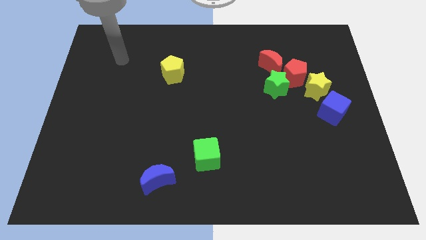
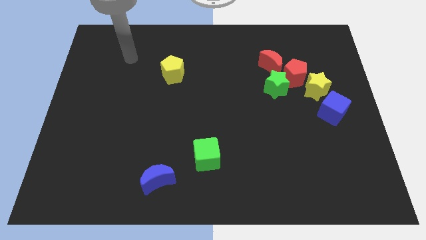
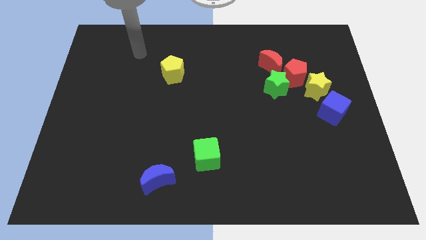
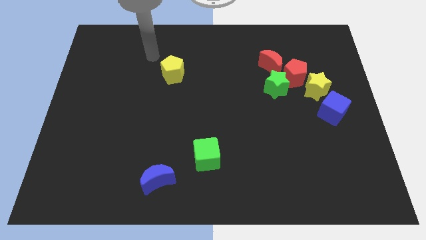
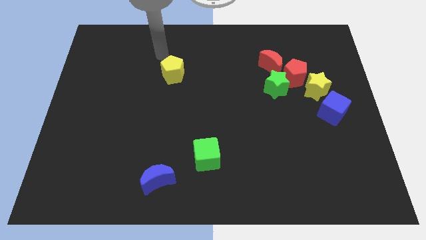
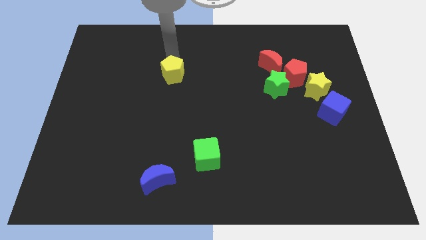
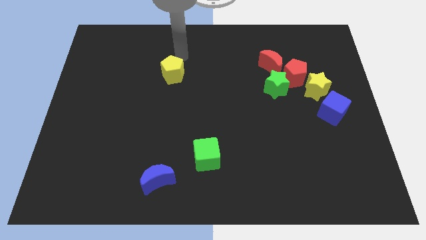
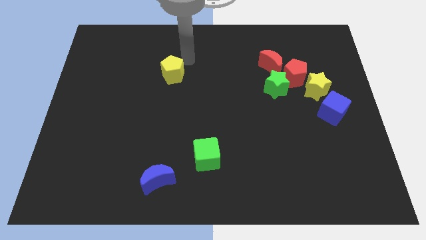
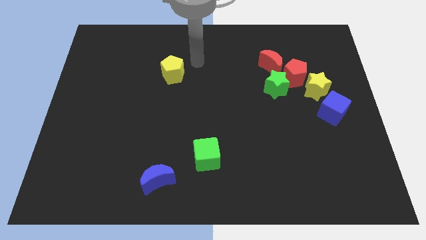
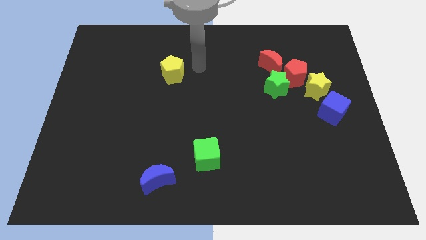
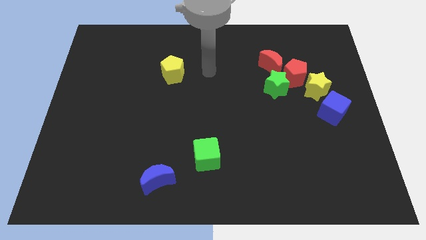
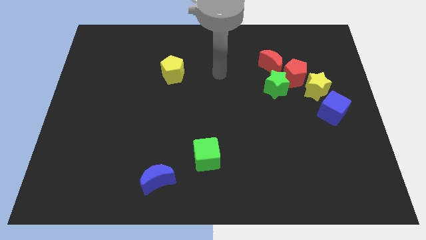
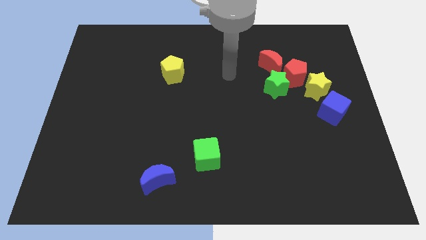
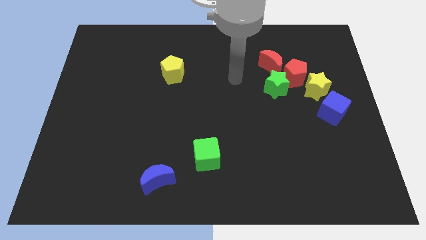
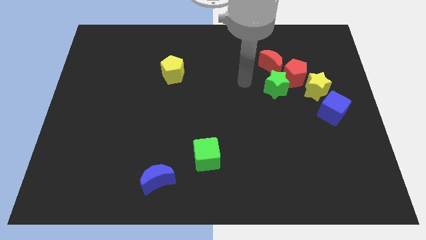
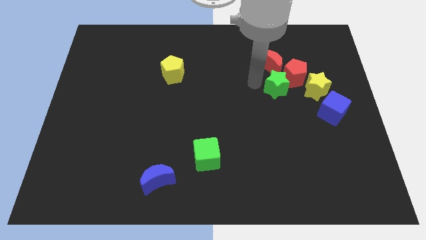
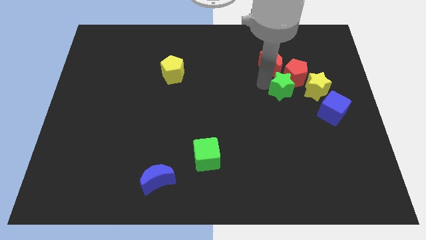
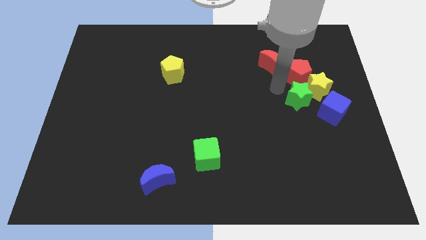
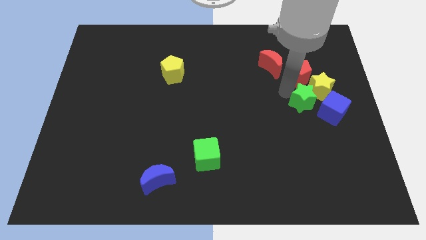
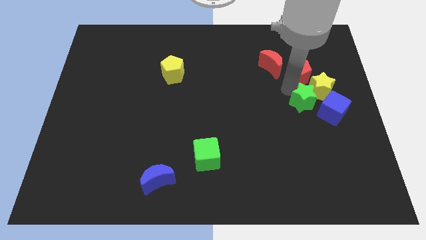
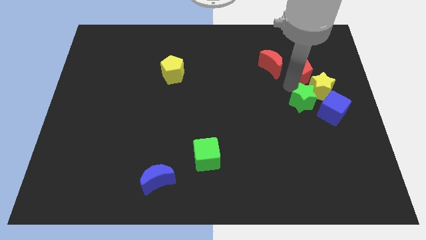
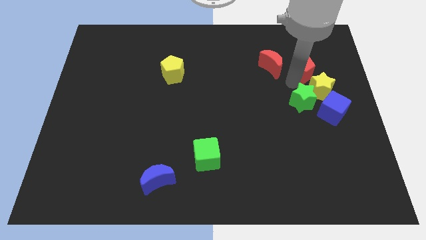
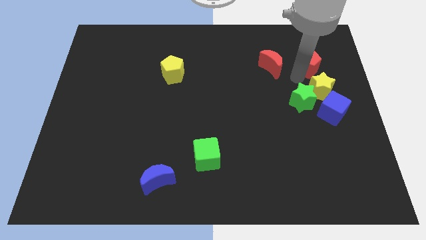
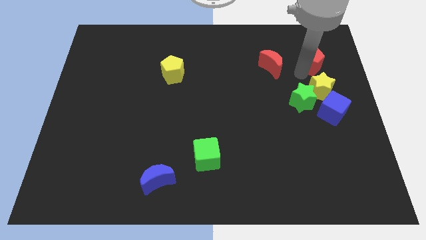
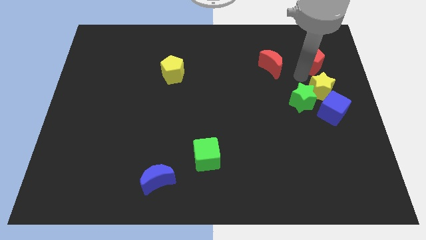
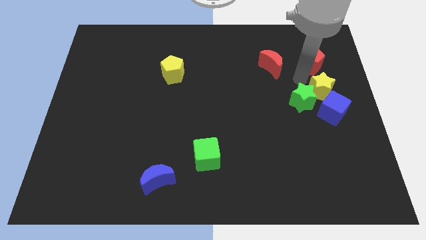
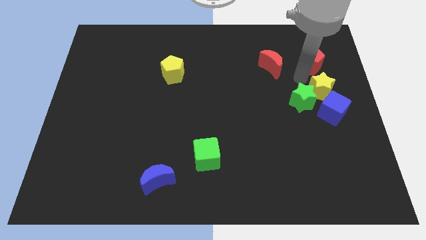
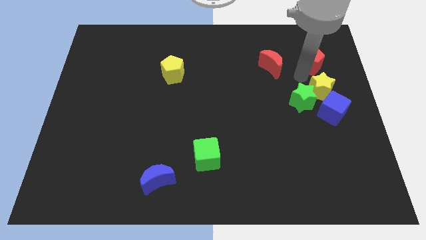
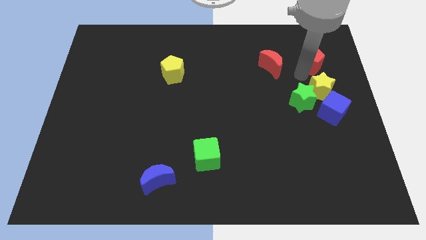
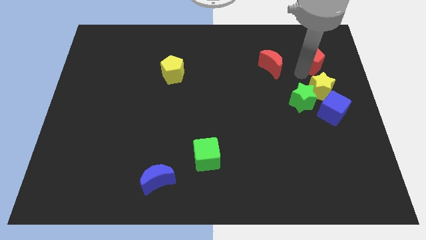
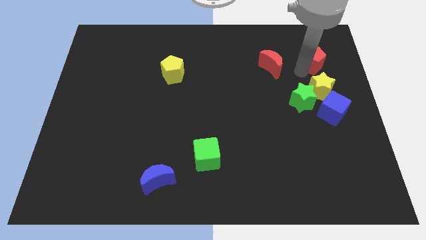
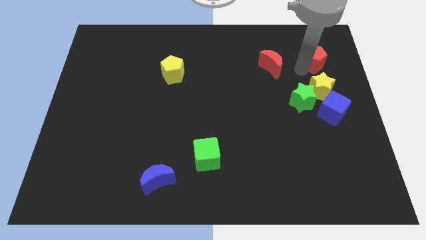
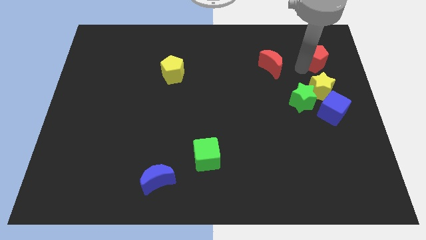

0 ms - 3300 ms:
separate the red pentagon from the clump

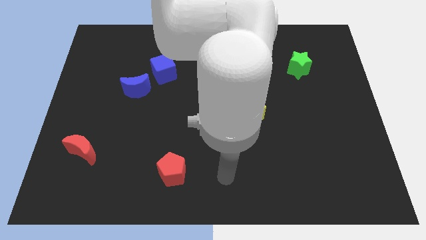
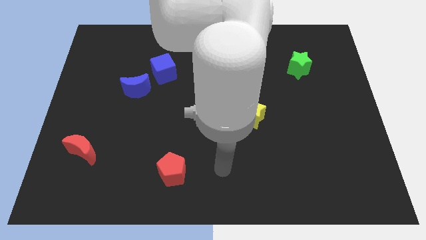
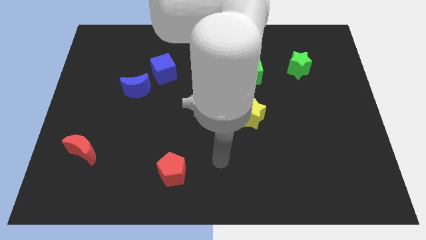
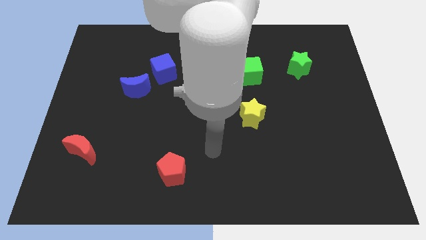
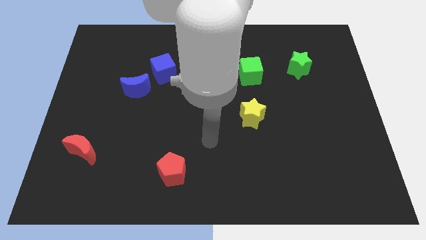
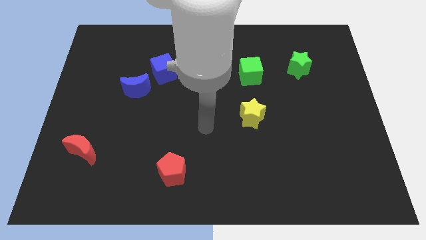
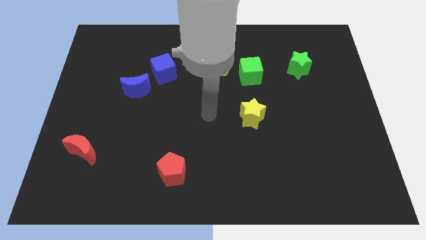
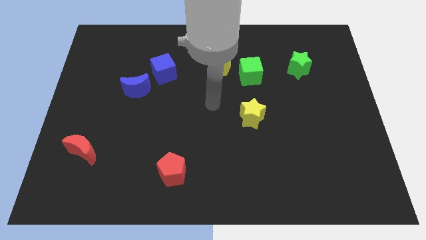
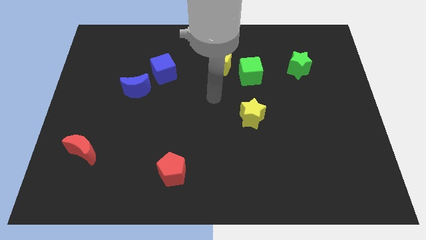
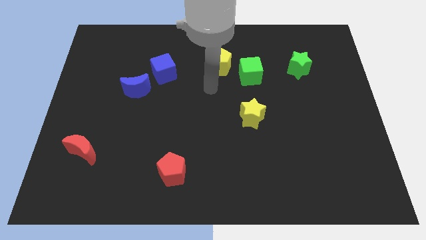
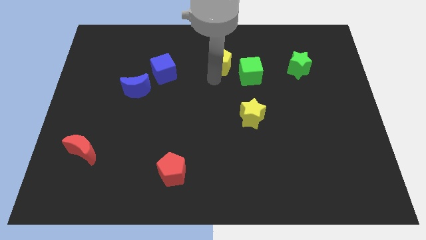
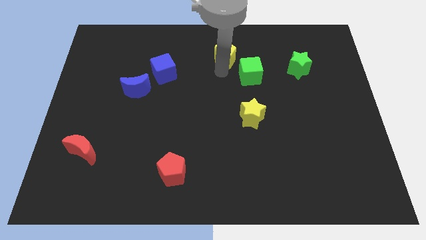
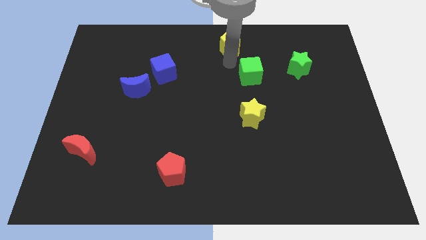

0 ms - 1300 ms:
move the green cube away from the yellow pentagon

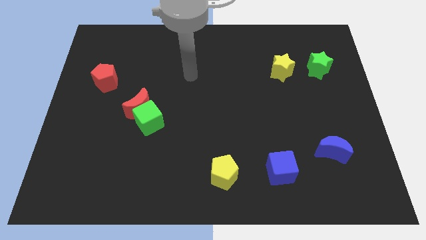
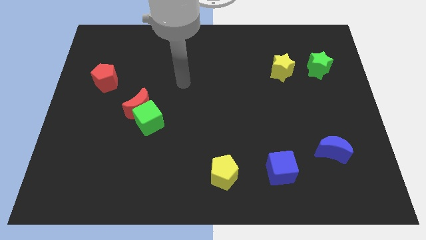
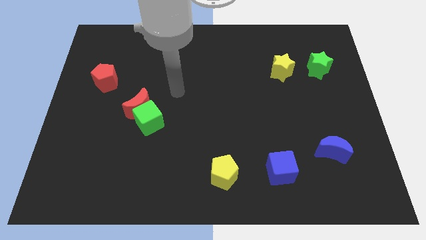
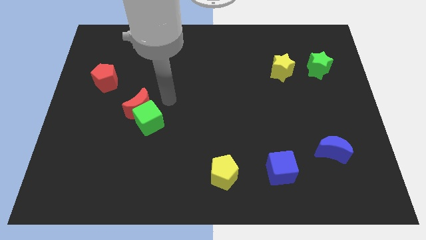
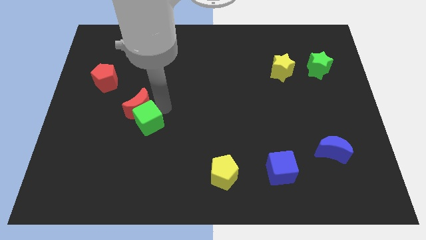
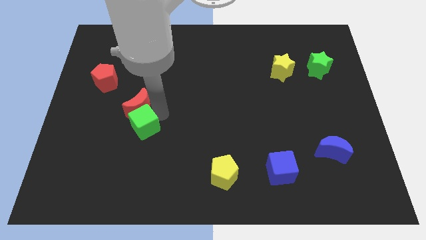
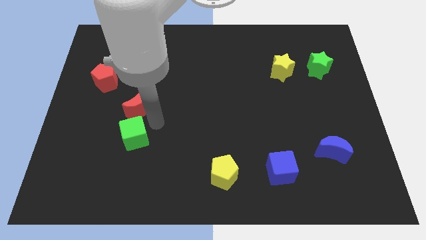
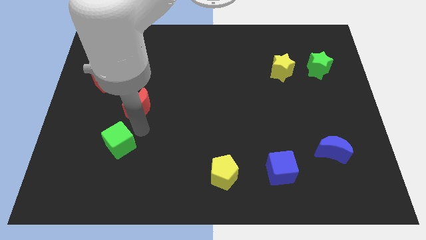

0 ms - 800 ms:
separate the red moon from the green cube

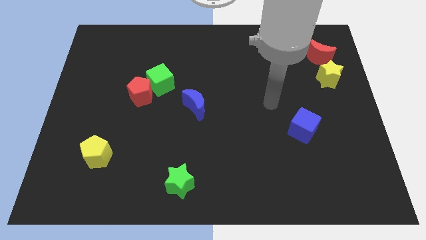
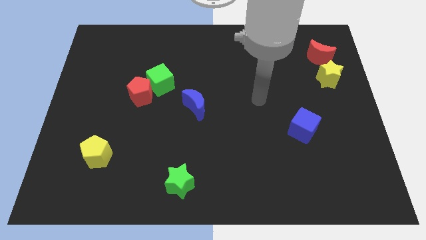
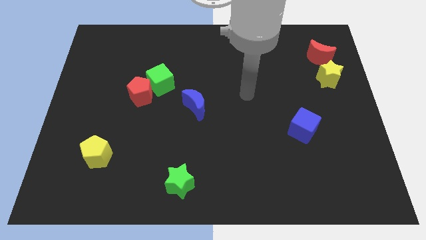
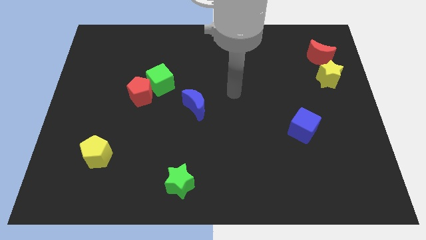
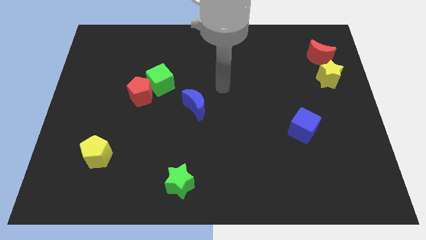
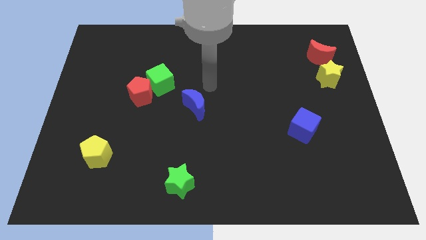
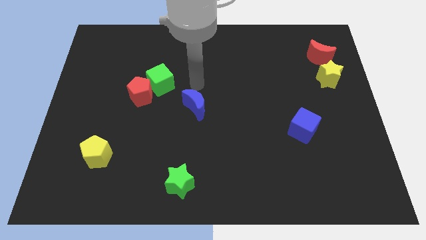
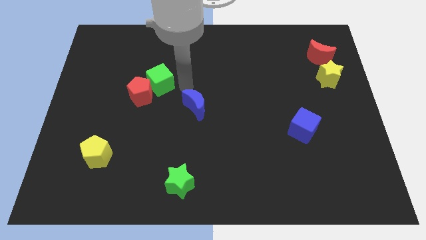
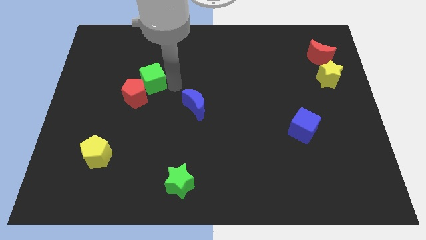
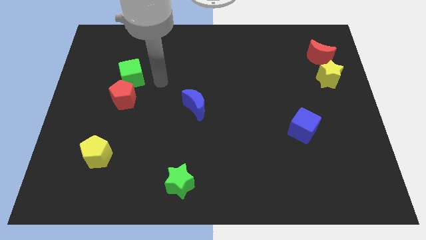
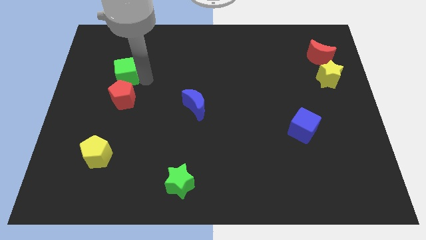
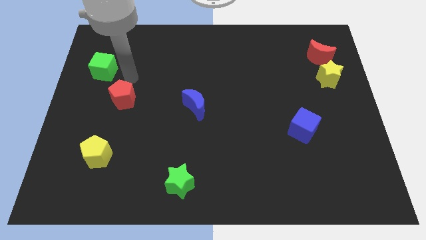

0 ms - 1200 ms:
pull the red pentagon apart from the green cube

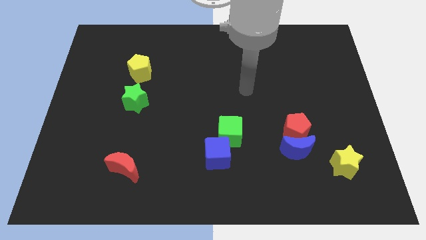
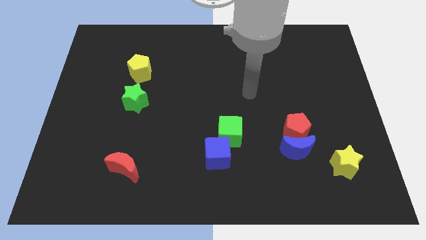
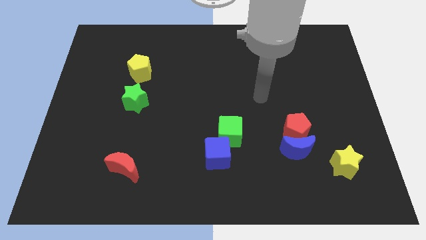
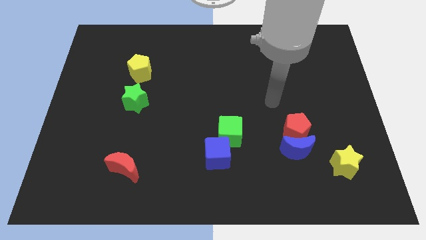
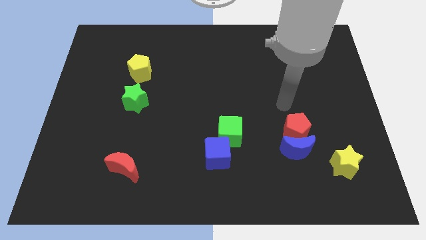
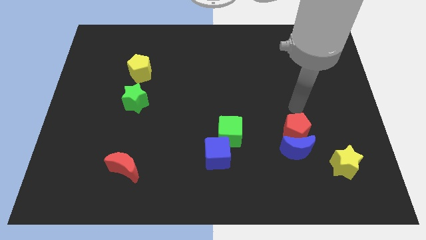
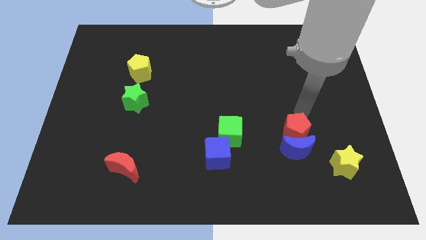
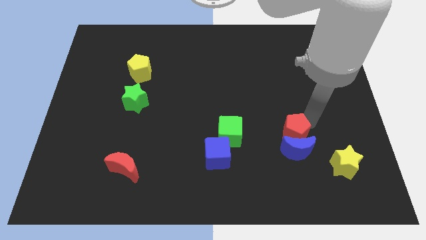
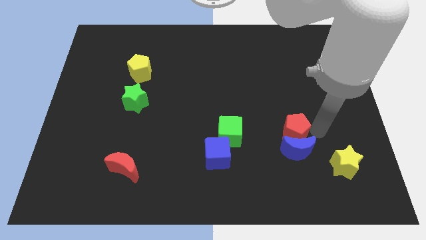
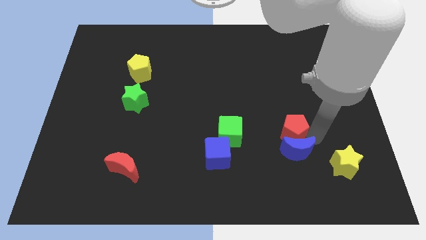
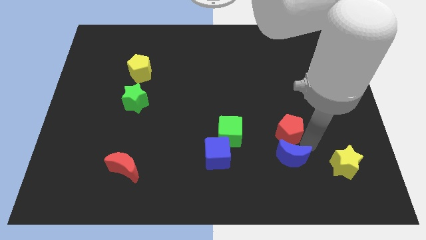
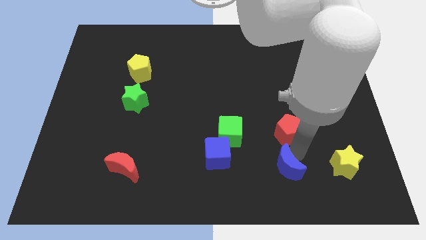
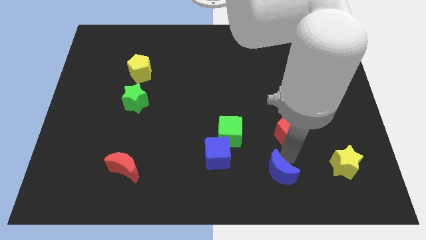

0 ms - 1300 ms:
move the red pentagon away from the blue moon

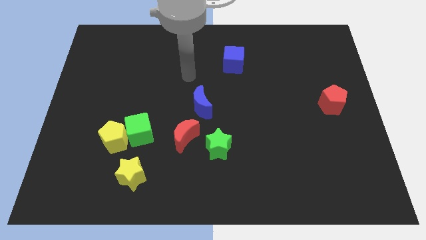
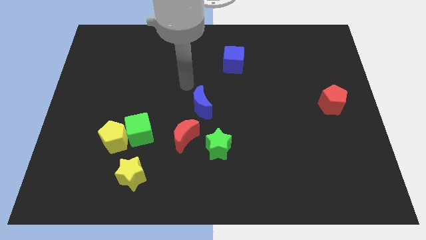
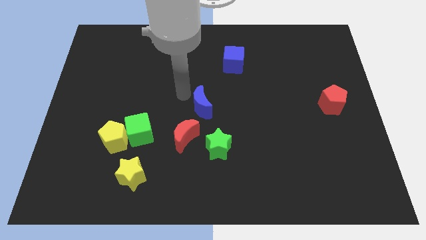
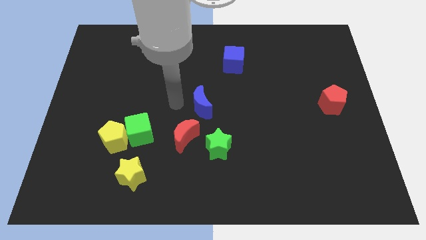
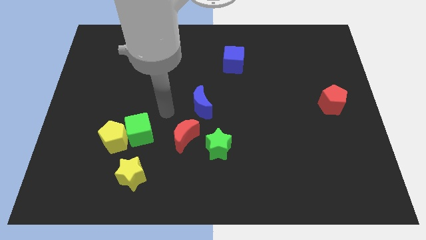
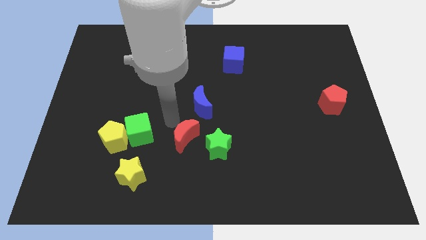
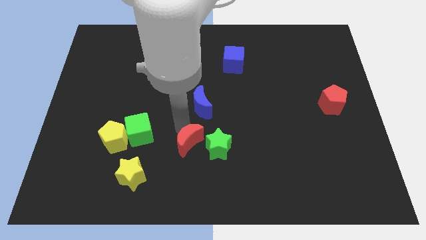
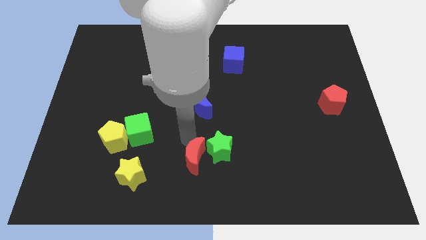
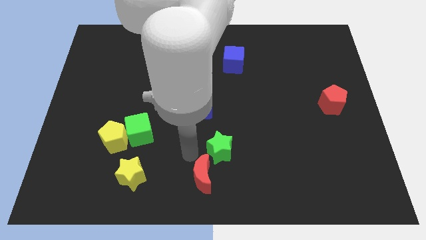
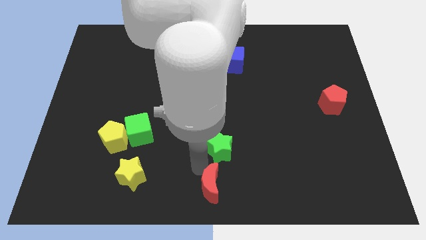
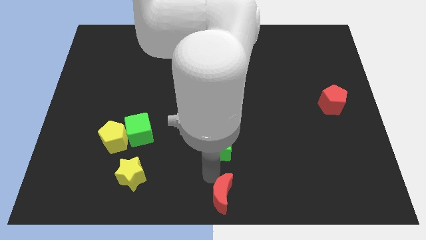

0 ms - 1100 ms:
move the green star away from the red moon

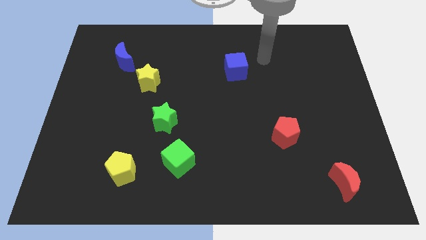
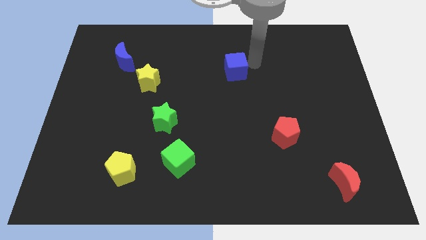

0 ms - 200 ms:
pull the blue moon apart from the yellow star
